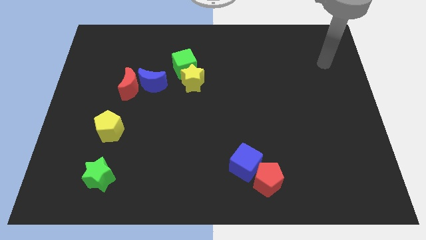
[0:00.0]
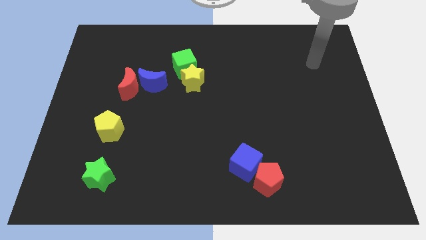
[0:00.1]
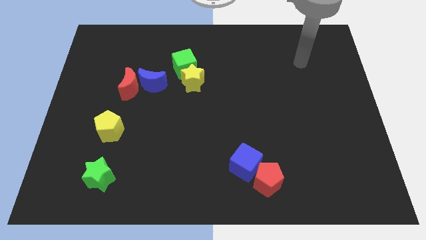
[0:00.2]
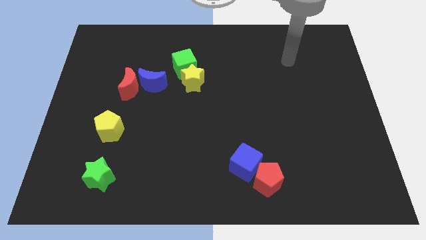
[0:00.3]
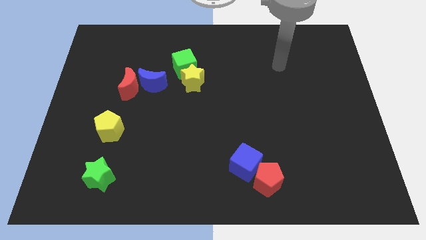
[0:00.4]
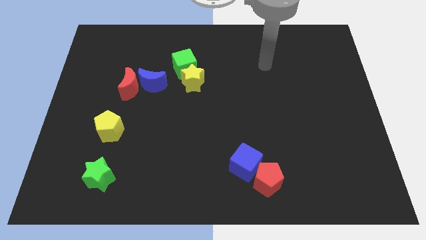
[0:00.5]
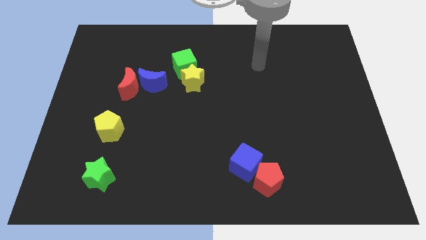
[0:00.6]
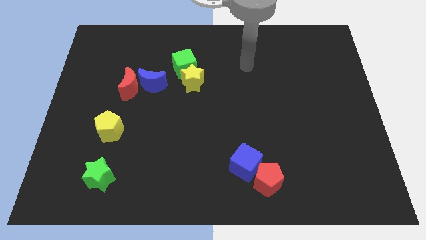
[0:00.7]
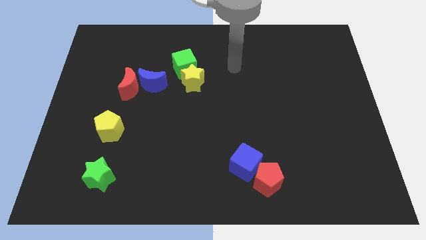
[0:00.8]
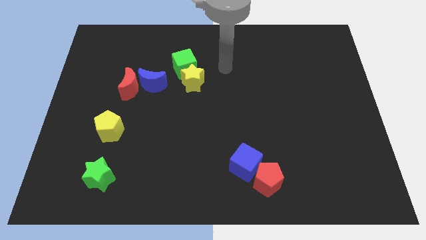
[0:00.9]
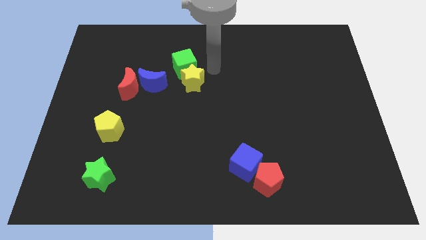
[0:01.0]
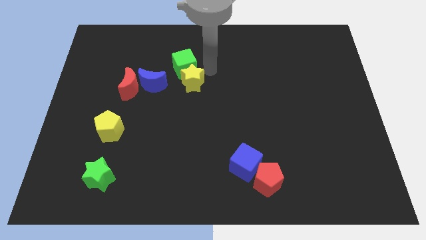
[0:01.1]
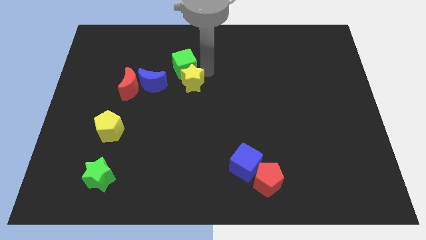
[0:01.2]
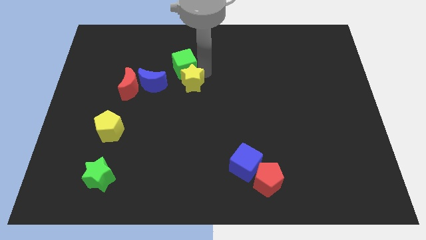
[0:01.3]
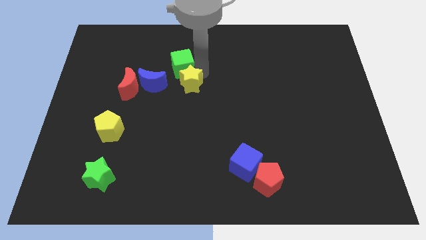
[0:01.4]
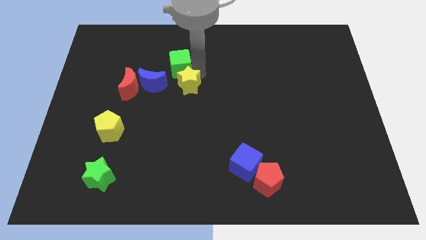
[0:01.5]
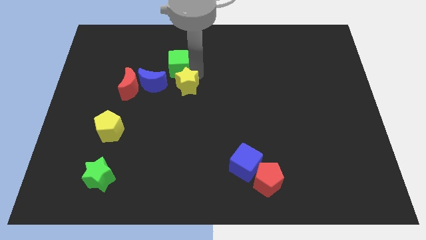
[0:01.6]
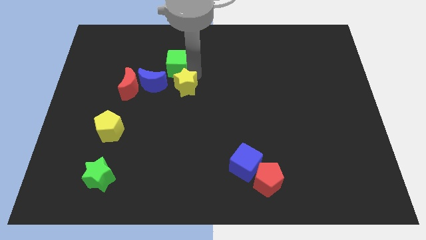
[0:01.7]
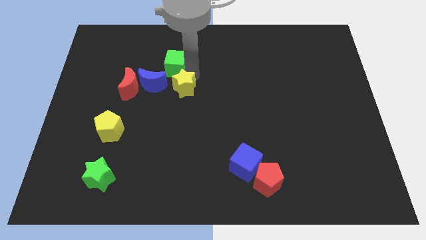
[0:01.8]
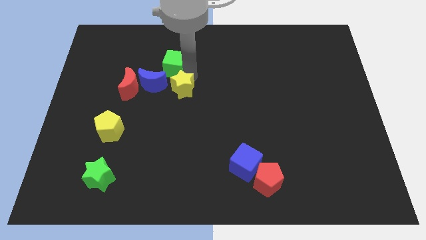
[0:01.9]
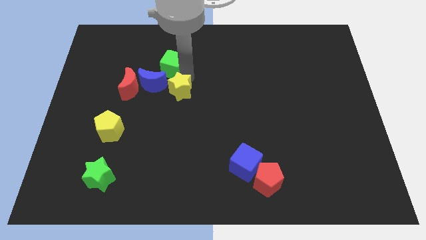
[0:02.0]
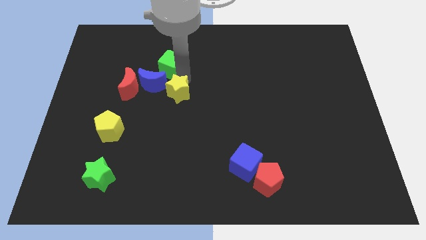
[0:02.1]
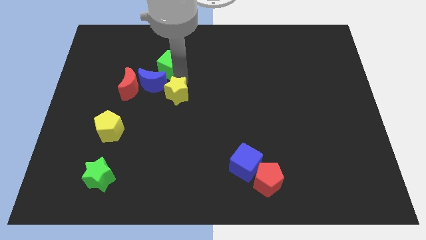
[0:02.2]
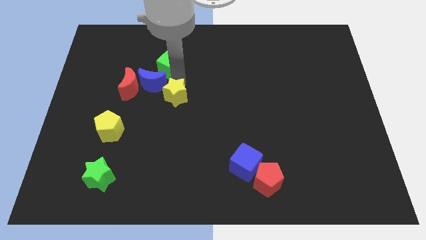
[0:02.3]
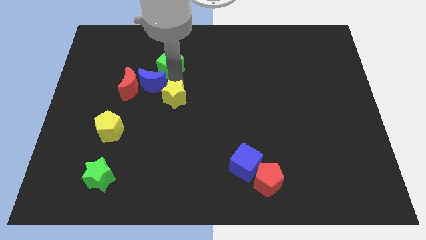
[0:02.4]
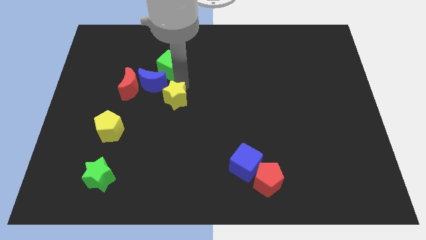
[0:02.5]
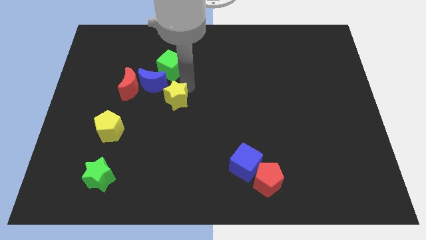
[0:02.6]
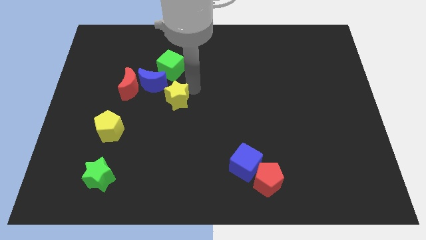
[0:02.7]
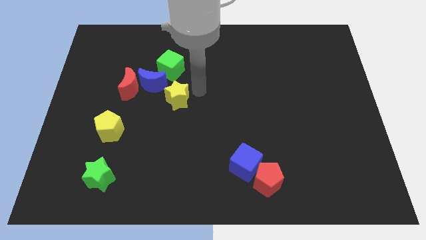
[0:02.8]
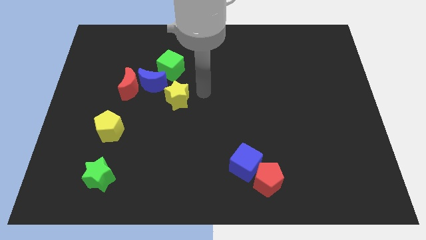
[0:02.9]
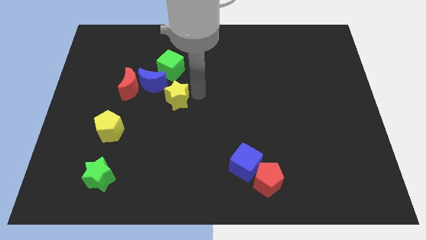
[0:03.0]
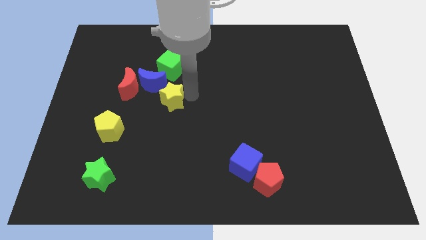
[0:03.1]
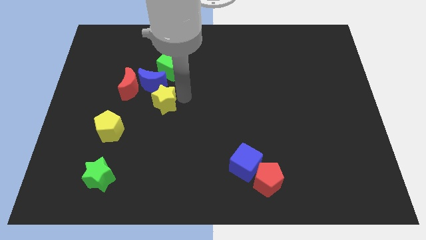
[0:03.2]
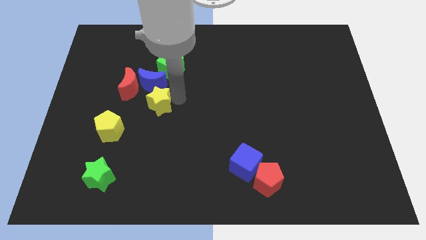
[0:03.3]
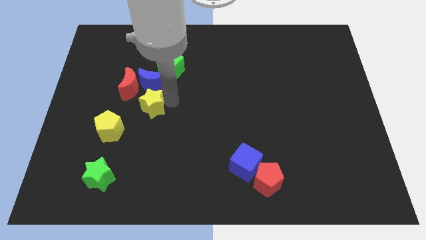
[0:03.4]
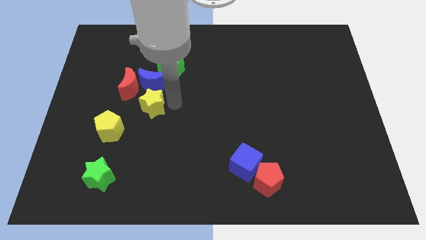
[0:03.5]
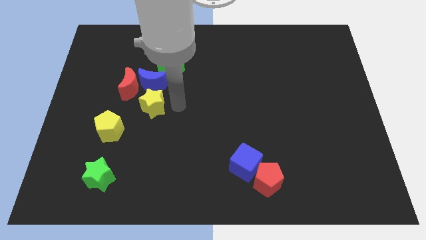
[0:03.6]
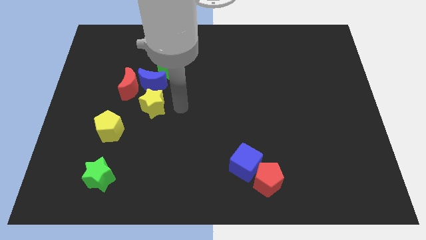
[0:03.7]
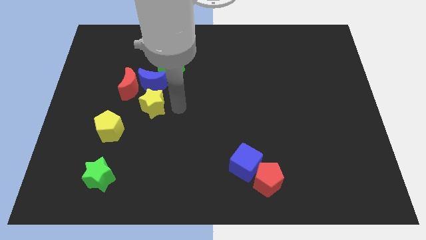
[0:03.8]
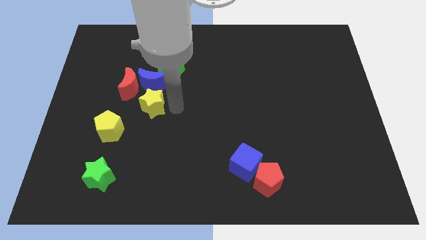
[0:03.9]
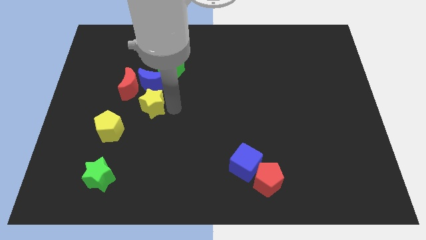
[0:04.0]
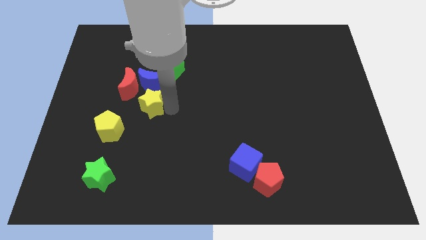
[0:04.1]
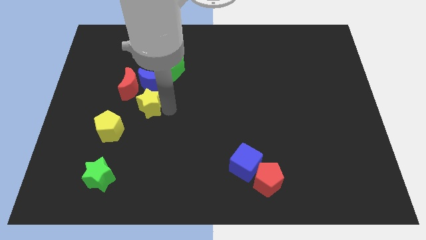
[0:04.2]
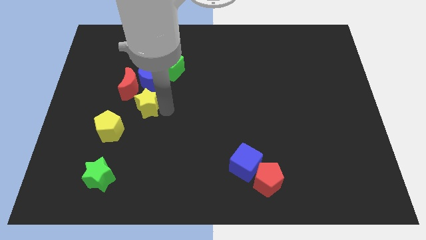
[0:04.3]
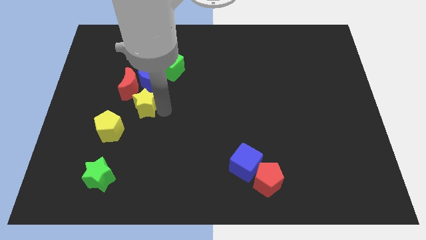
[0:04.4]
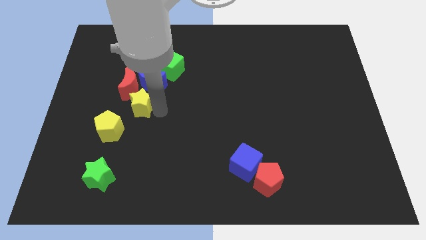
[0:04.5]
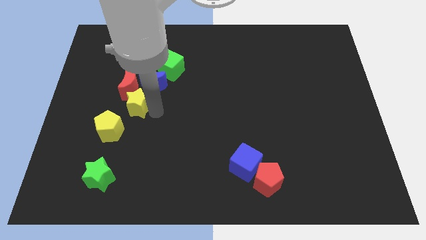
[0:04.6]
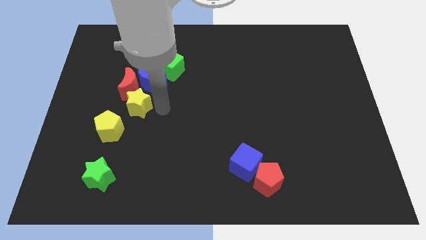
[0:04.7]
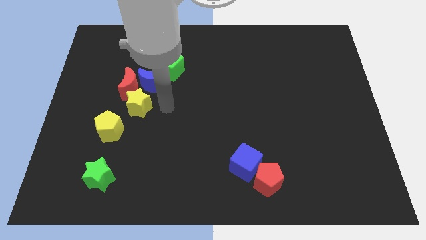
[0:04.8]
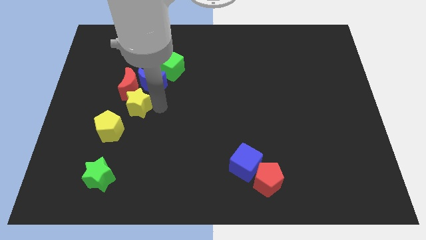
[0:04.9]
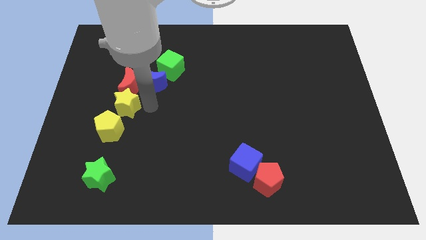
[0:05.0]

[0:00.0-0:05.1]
slide the yellow star diagonally down and to the left of the red moon

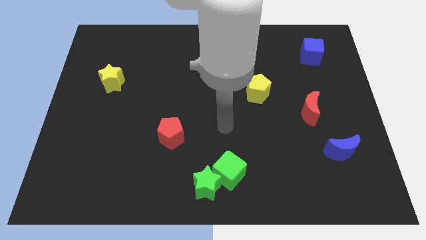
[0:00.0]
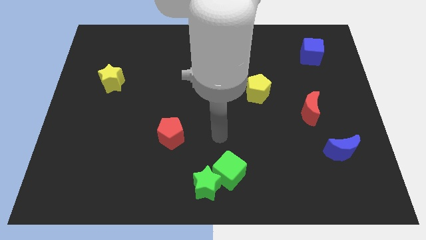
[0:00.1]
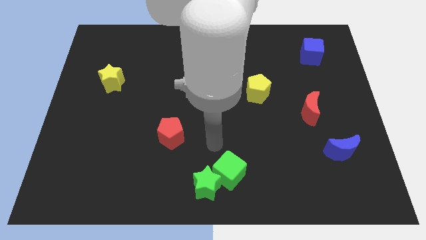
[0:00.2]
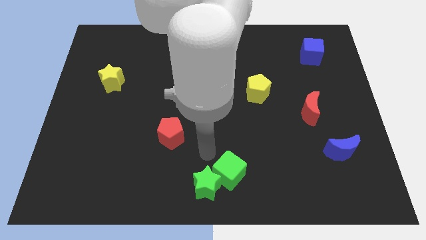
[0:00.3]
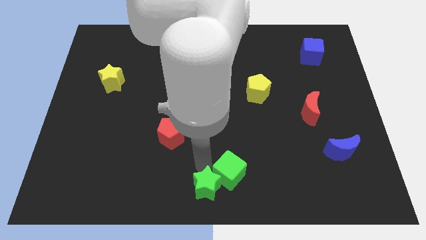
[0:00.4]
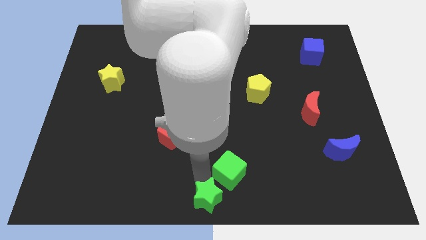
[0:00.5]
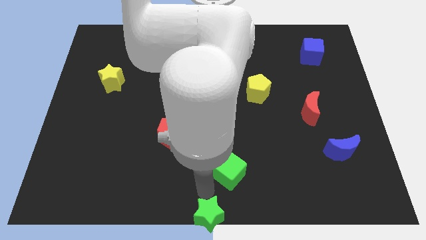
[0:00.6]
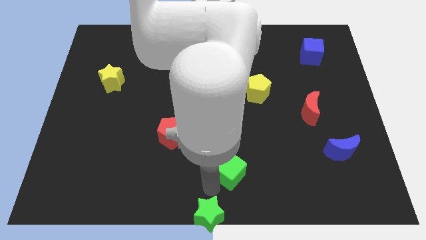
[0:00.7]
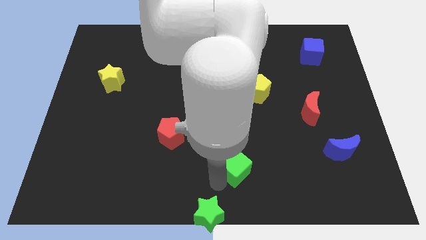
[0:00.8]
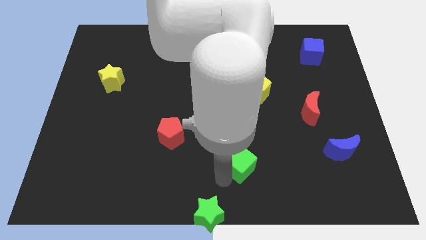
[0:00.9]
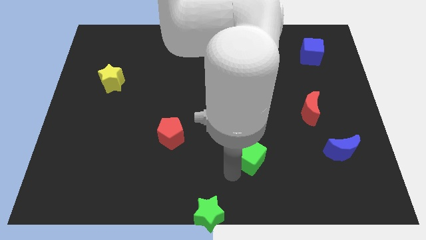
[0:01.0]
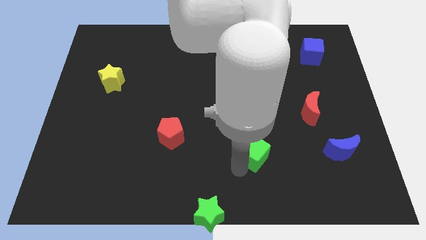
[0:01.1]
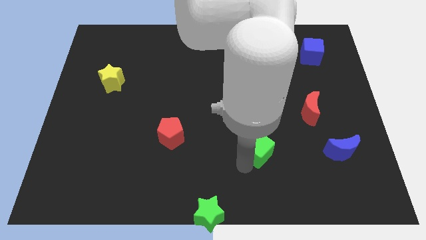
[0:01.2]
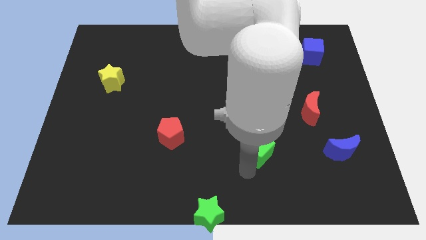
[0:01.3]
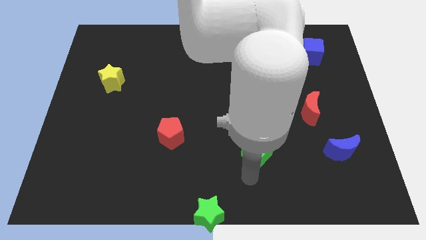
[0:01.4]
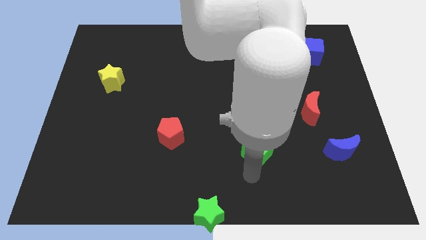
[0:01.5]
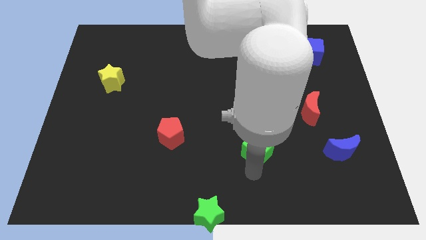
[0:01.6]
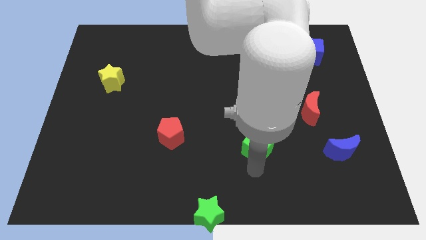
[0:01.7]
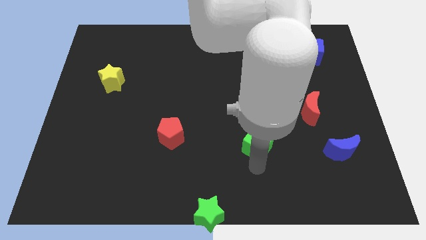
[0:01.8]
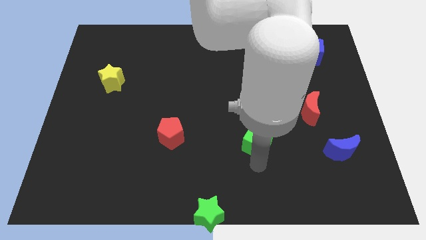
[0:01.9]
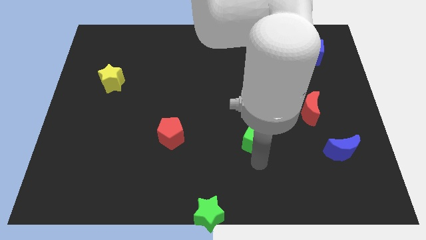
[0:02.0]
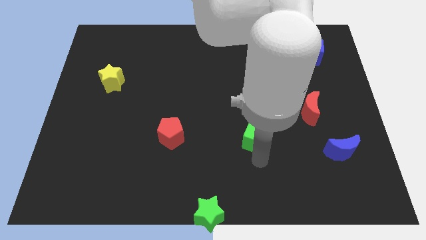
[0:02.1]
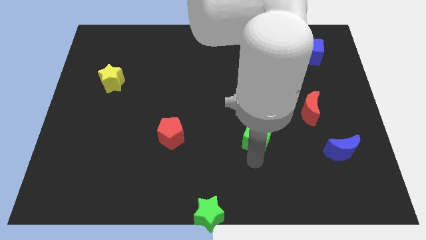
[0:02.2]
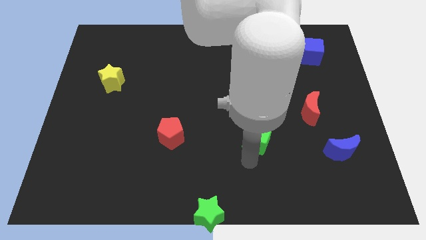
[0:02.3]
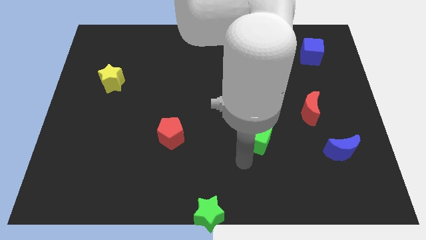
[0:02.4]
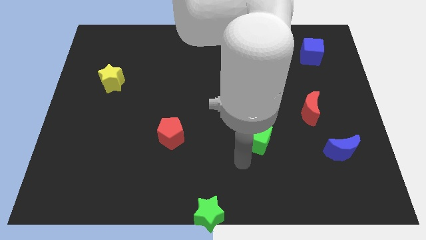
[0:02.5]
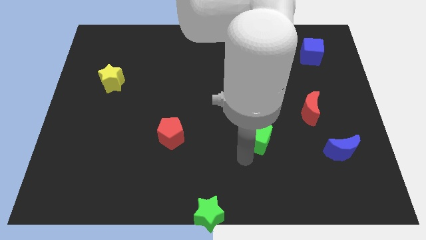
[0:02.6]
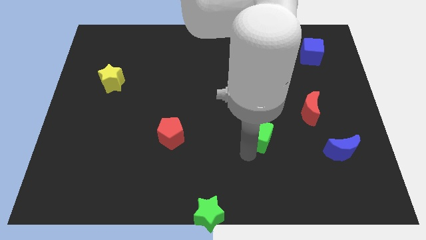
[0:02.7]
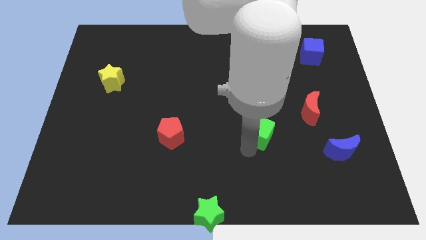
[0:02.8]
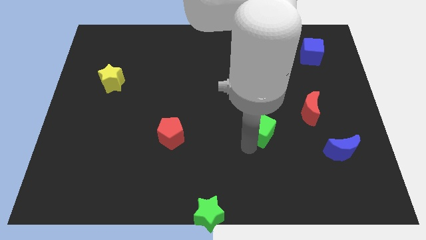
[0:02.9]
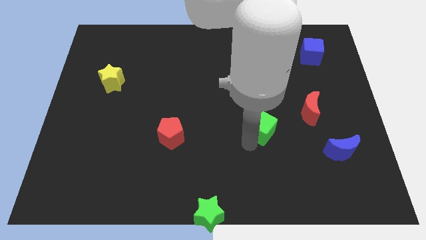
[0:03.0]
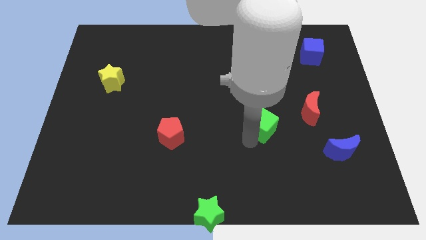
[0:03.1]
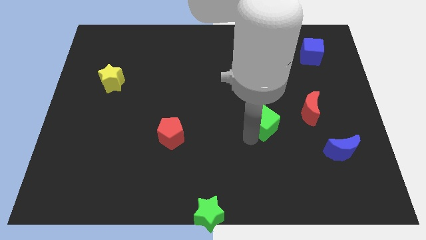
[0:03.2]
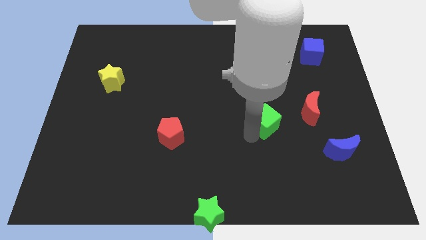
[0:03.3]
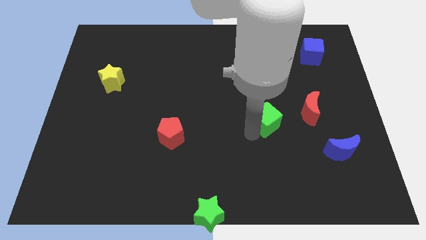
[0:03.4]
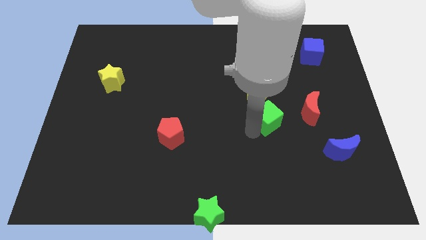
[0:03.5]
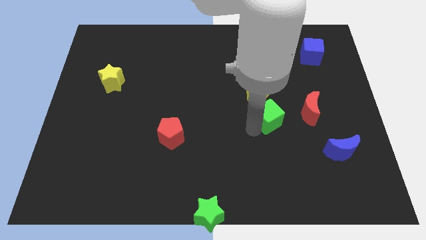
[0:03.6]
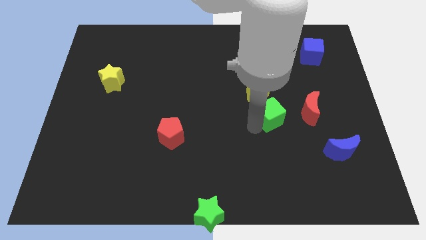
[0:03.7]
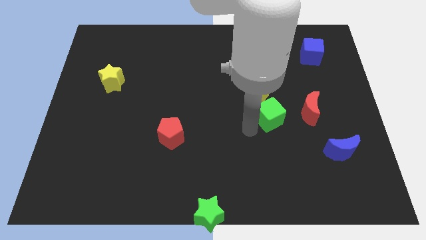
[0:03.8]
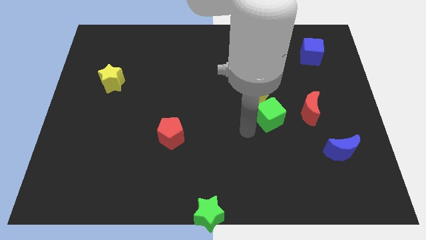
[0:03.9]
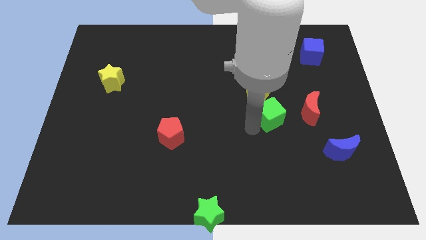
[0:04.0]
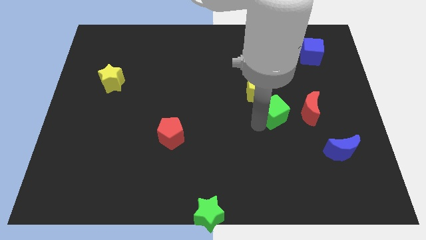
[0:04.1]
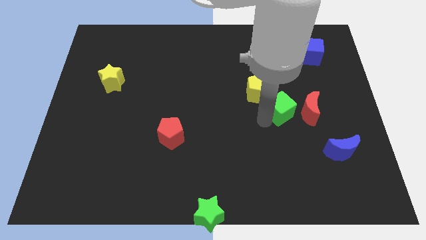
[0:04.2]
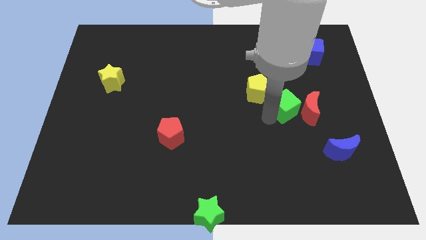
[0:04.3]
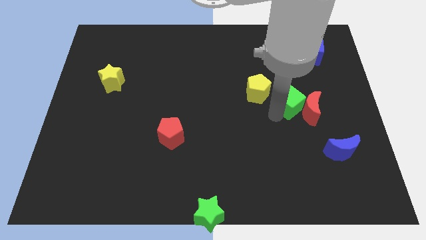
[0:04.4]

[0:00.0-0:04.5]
slide the green cube right of the yellow pentagon
